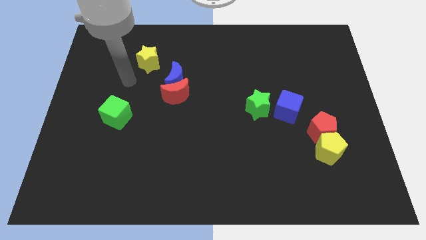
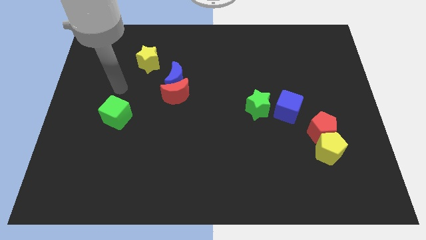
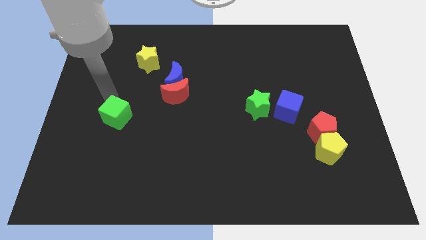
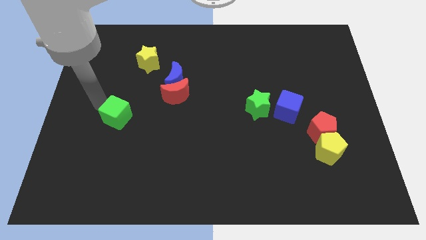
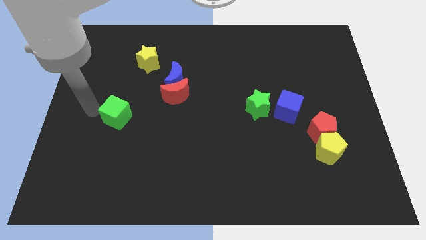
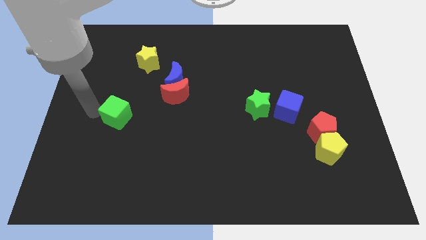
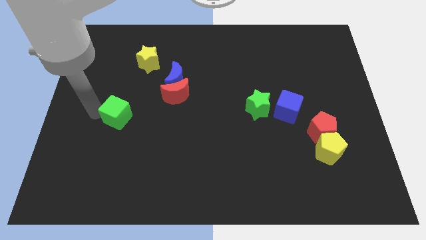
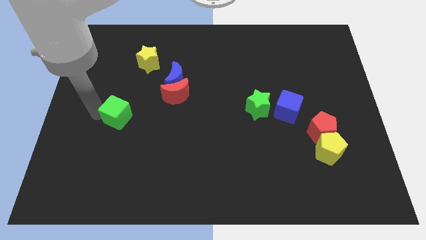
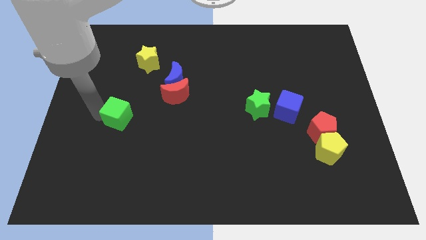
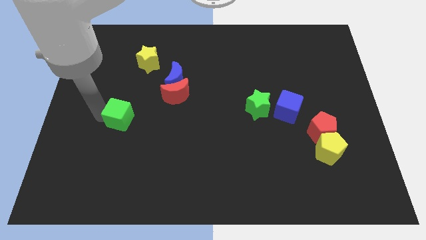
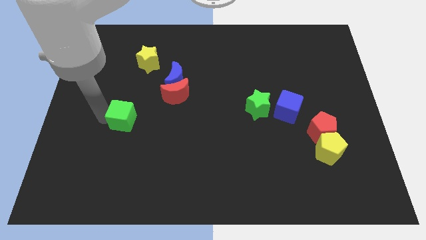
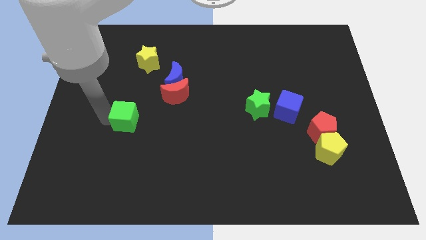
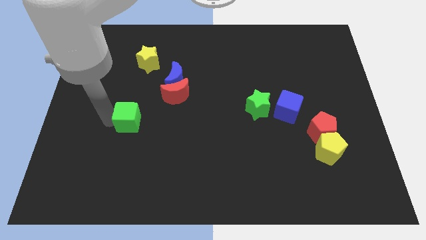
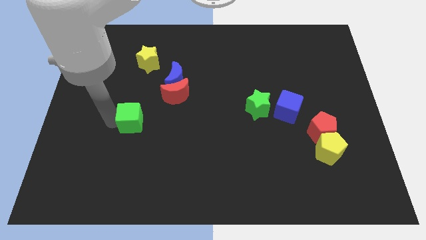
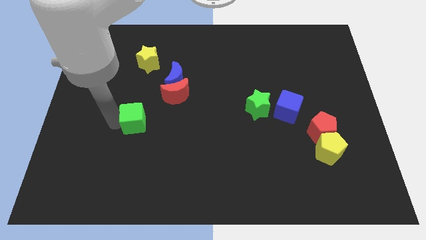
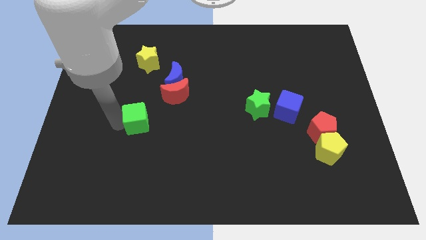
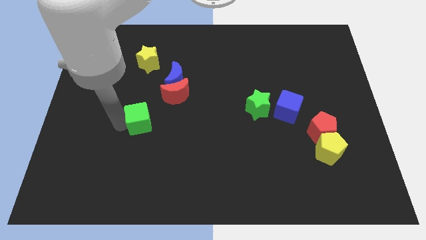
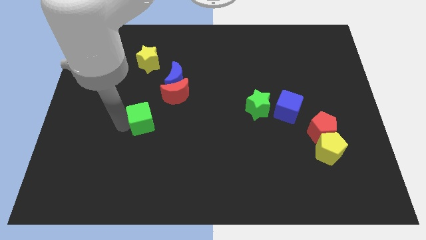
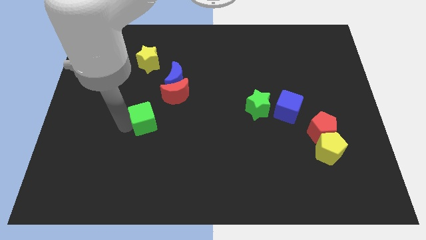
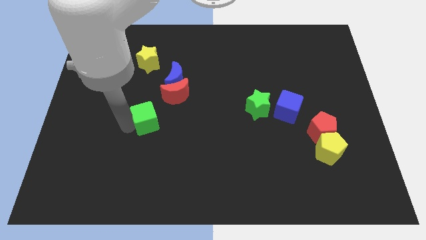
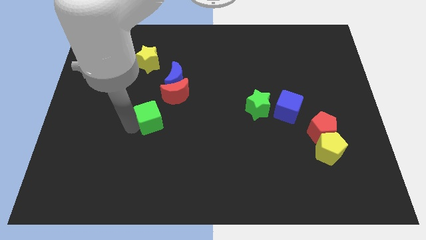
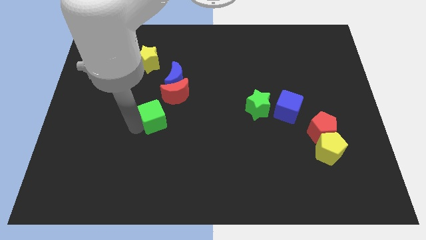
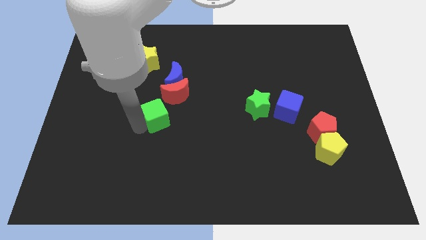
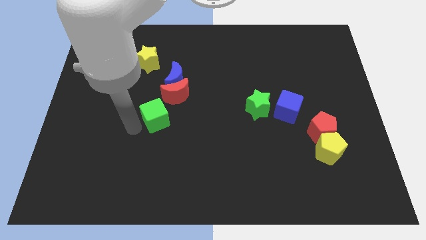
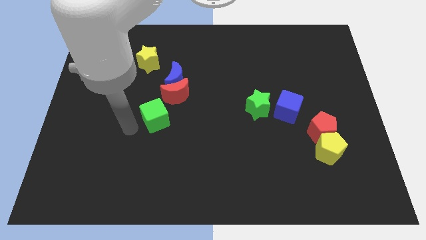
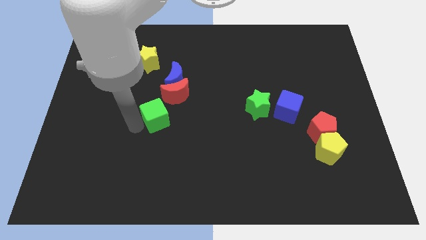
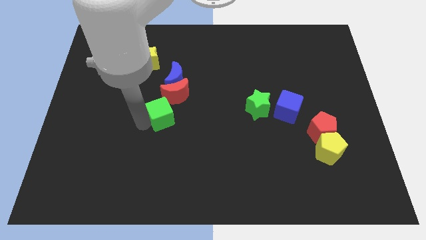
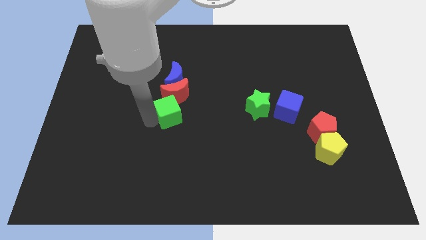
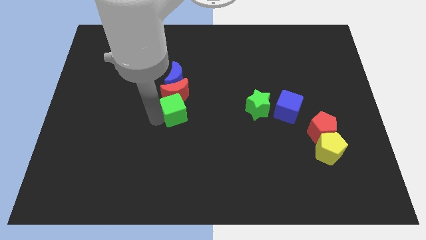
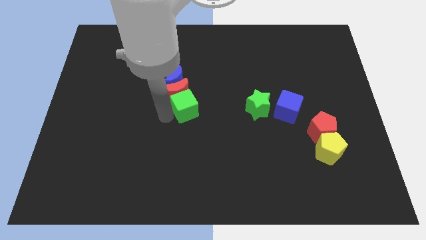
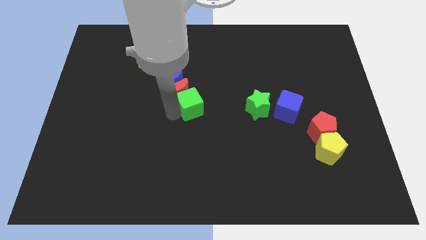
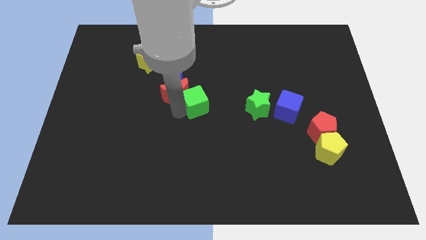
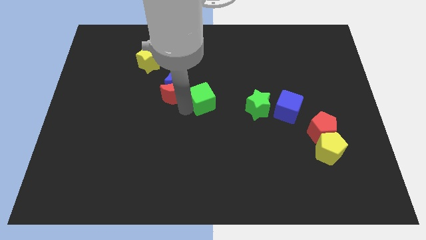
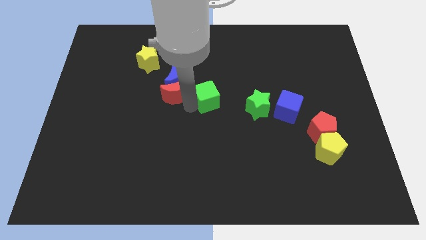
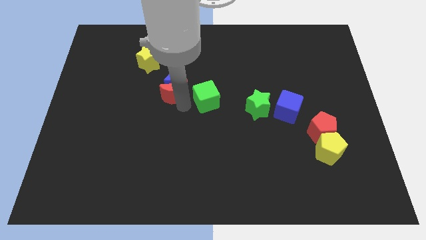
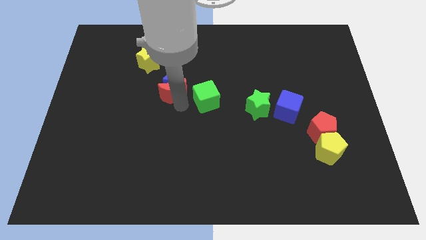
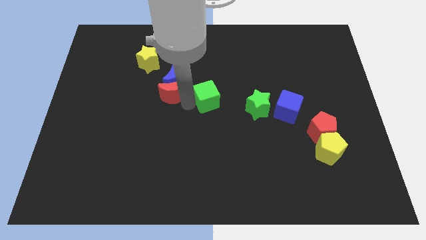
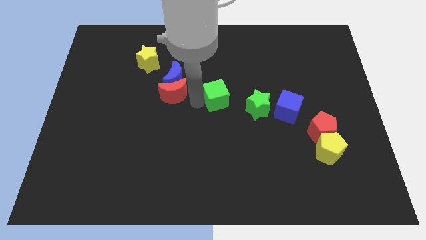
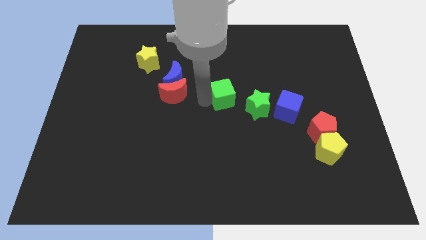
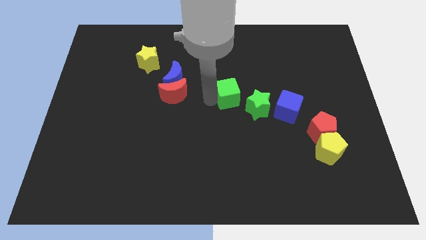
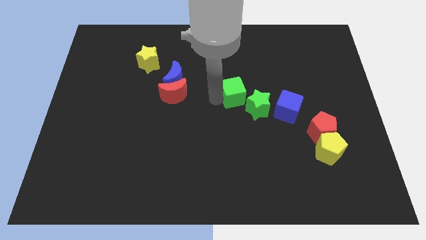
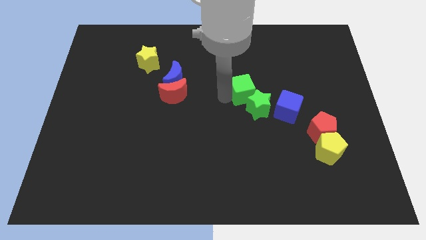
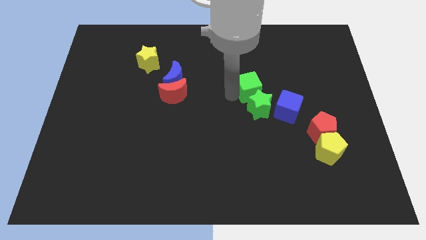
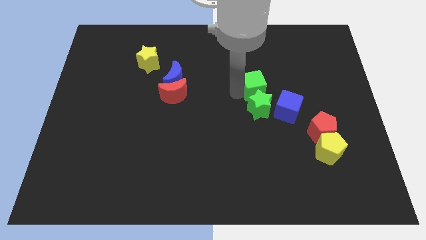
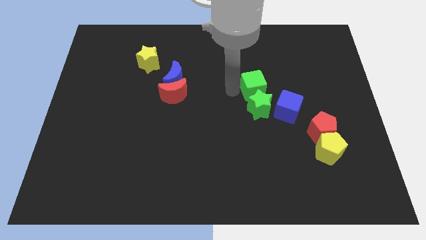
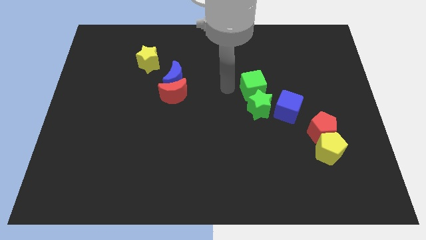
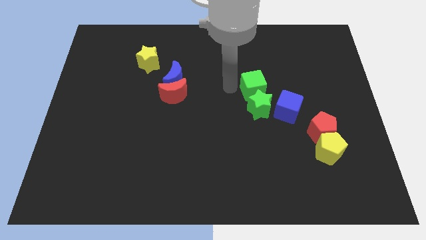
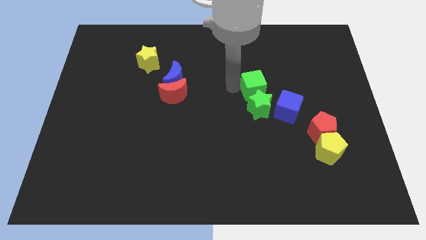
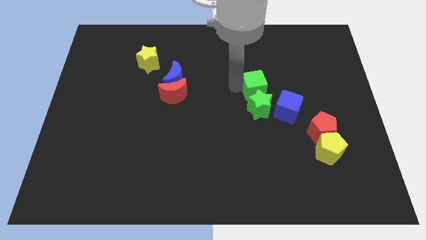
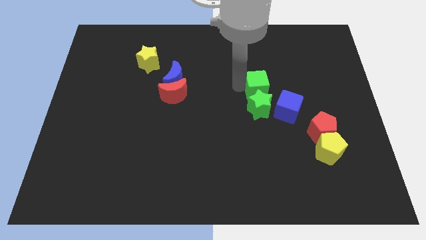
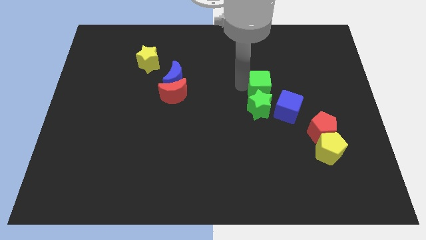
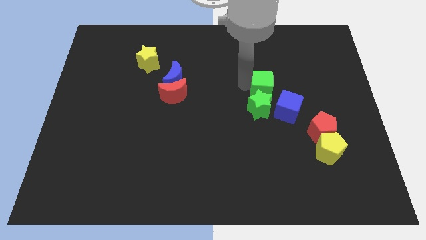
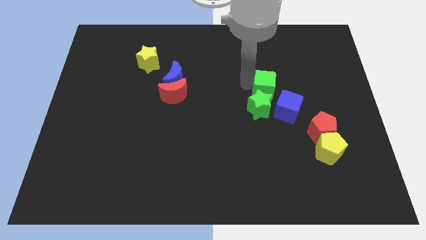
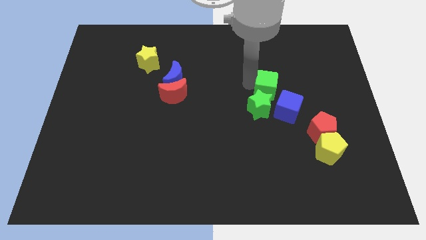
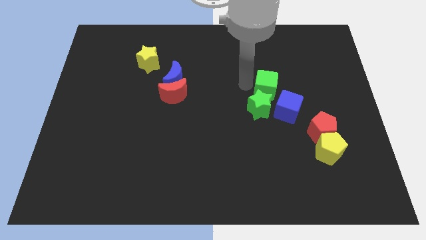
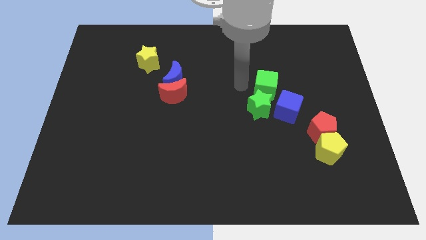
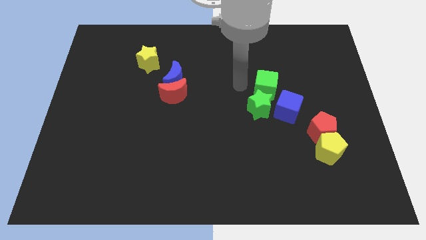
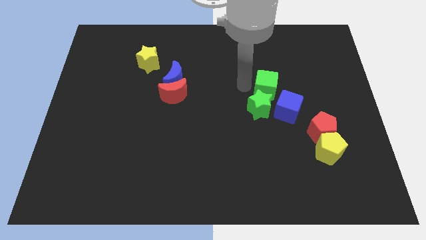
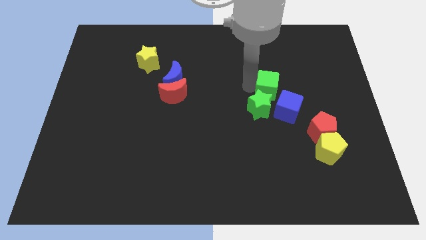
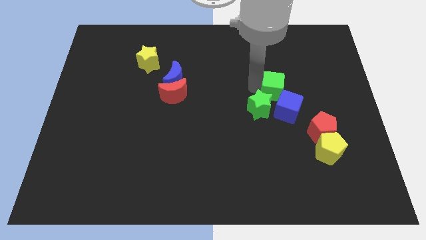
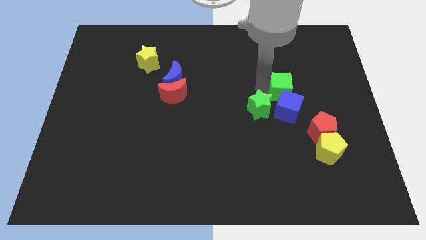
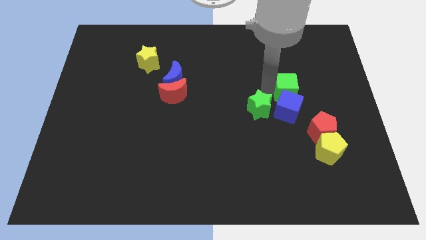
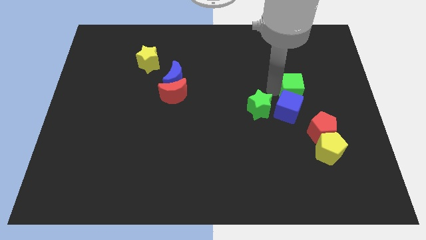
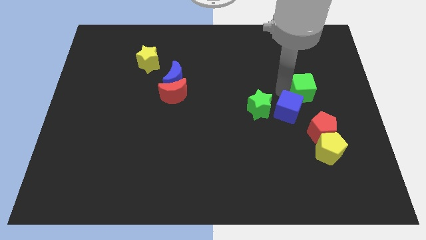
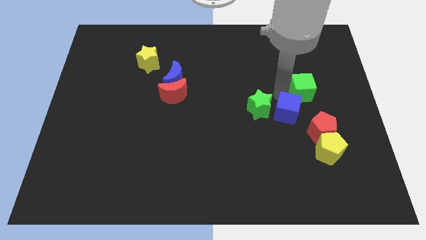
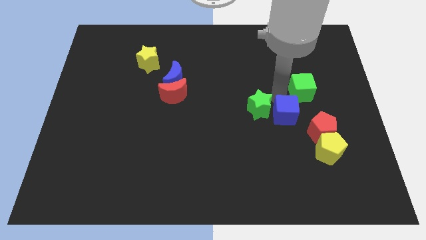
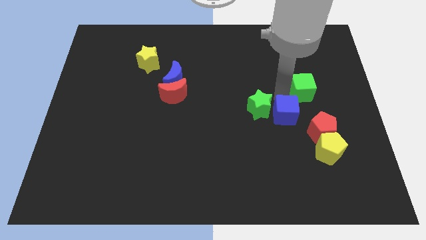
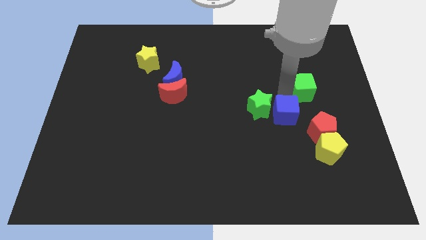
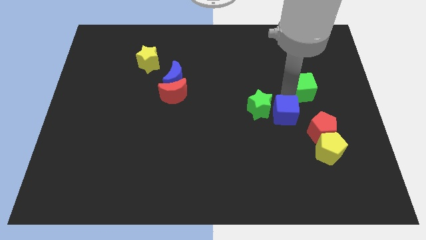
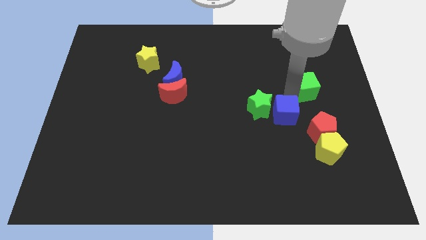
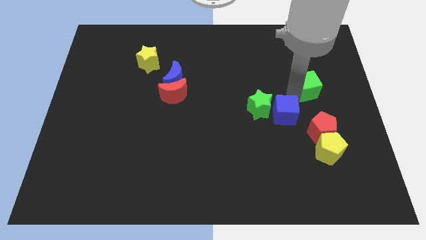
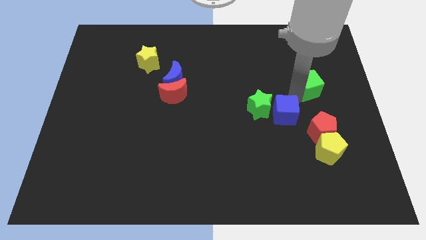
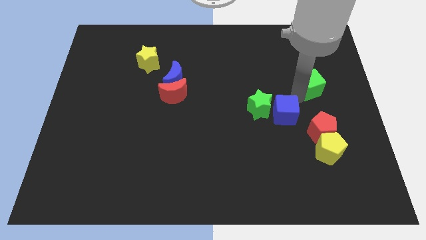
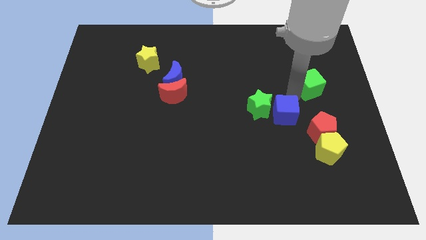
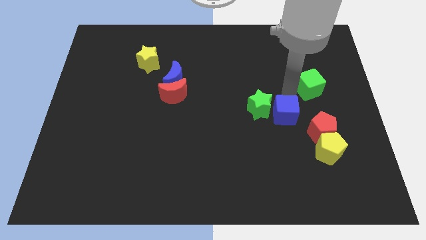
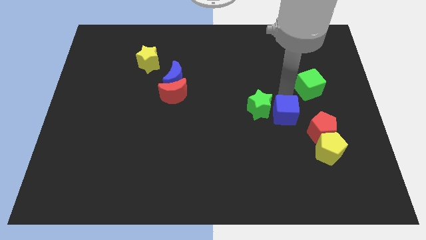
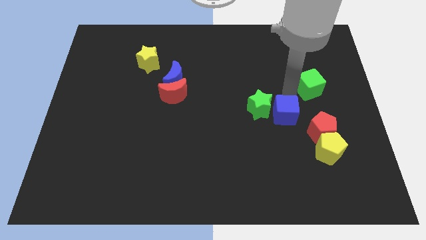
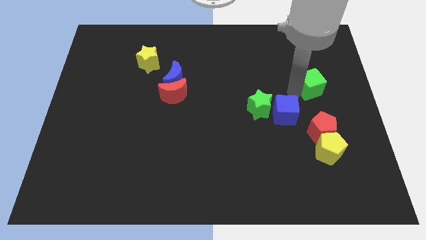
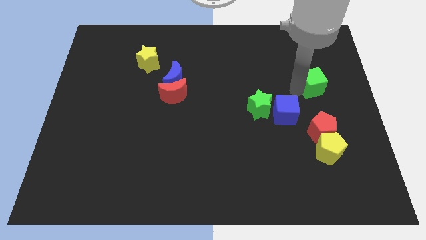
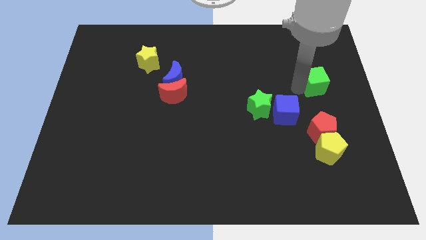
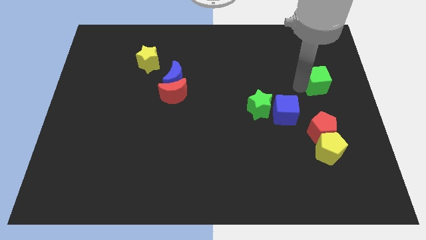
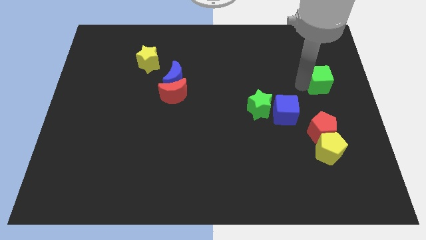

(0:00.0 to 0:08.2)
push the green cube to the right side
